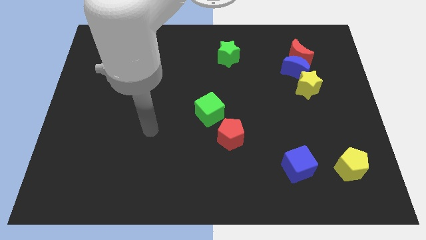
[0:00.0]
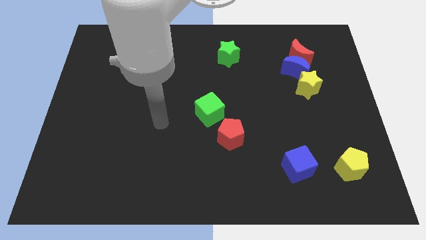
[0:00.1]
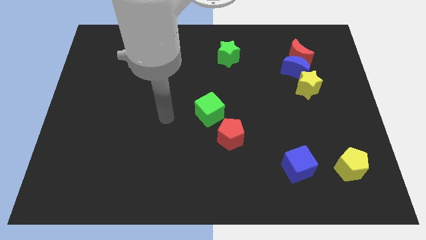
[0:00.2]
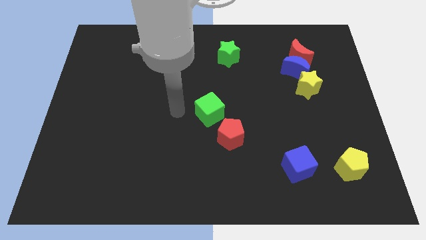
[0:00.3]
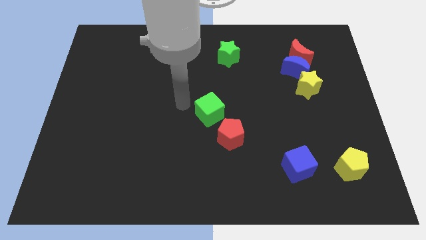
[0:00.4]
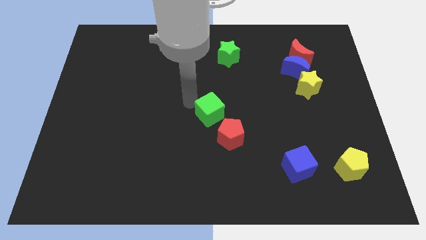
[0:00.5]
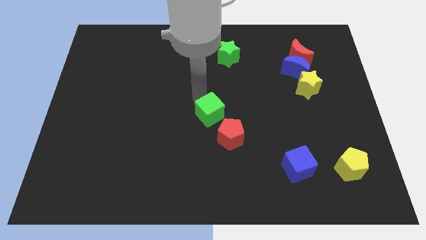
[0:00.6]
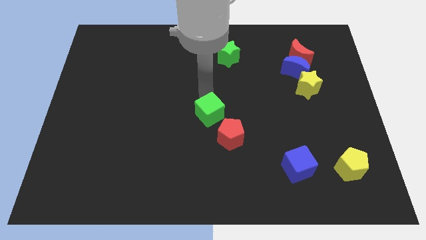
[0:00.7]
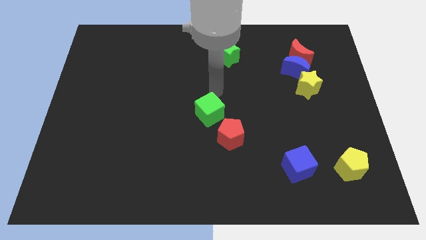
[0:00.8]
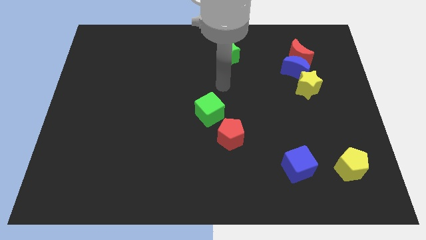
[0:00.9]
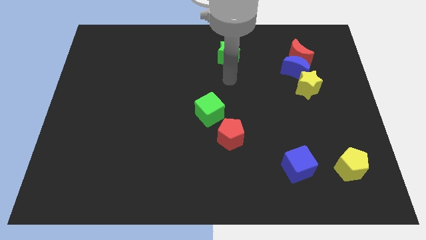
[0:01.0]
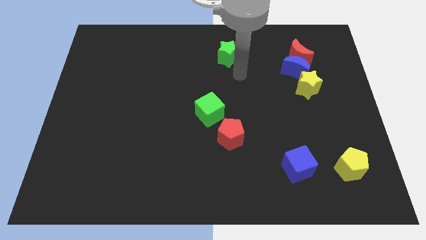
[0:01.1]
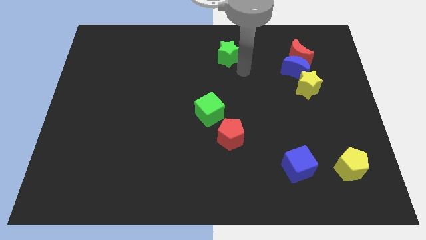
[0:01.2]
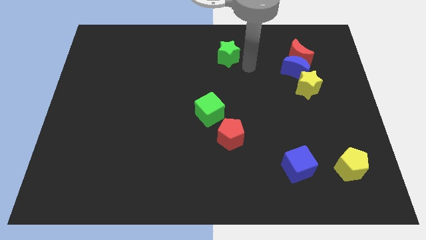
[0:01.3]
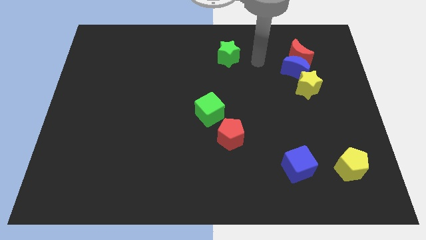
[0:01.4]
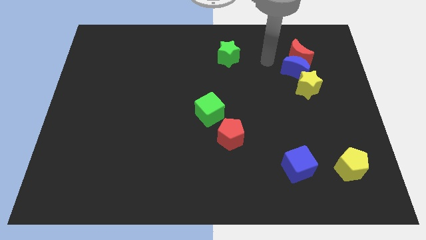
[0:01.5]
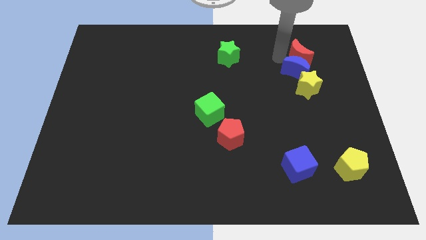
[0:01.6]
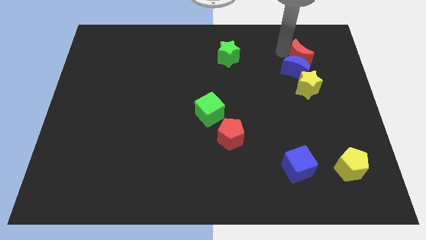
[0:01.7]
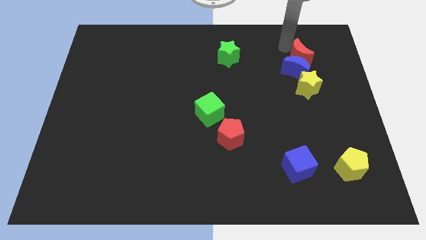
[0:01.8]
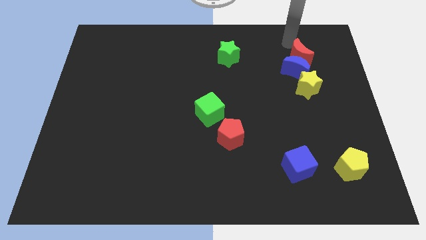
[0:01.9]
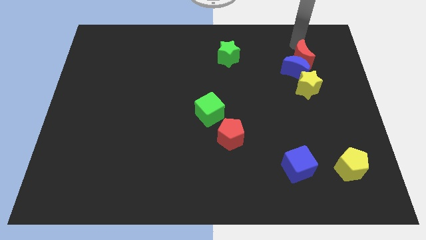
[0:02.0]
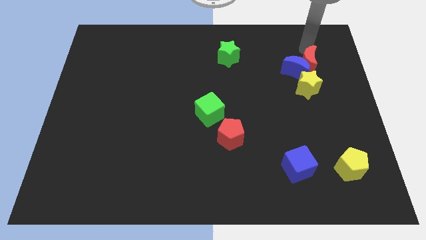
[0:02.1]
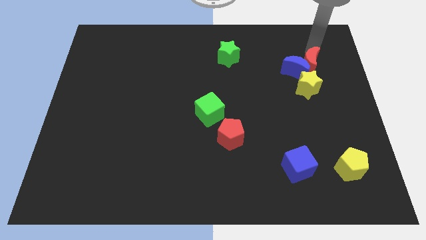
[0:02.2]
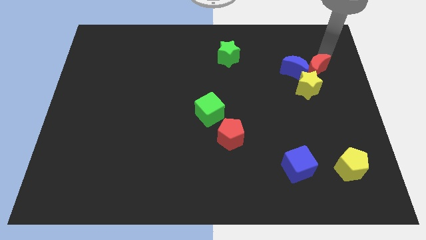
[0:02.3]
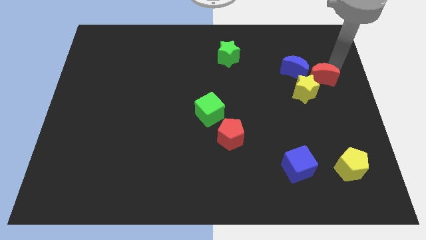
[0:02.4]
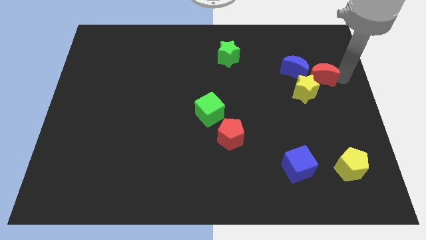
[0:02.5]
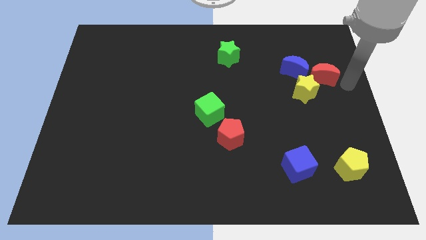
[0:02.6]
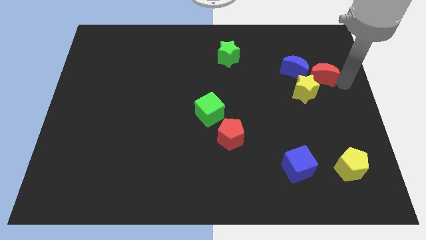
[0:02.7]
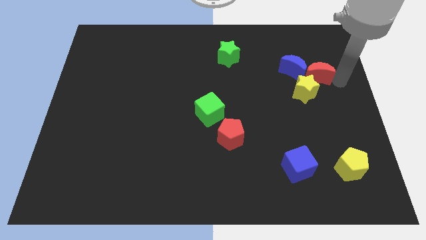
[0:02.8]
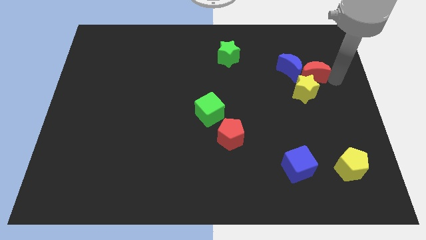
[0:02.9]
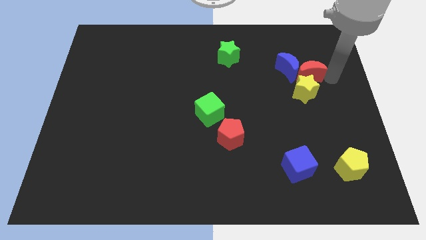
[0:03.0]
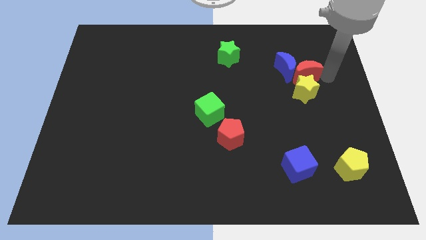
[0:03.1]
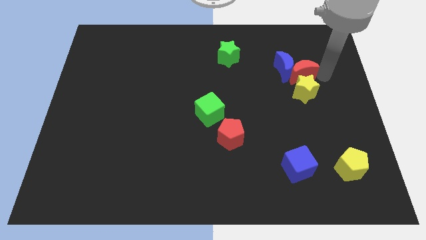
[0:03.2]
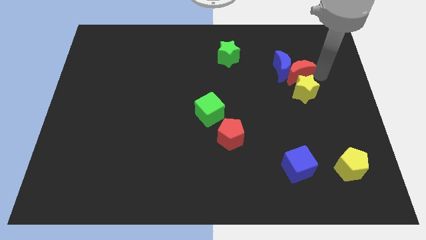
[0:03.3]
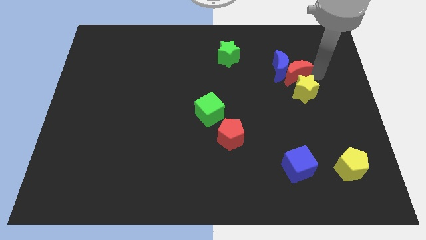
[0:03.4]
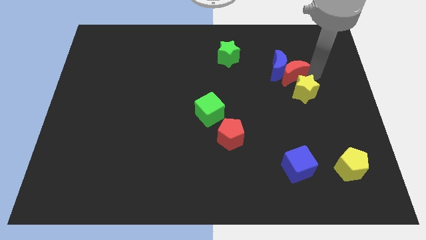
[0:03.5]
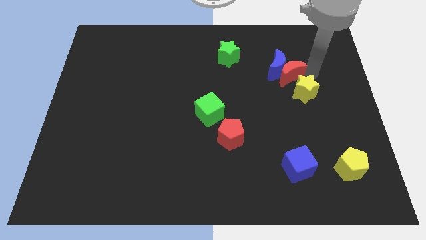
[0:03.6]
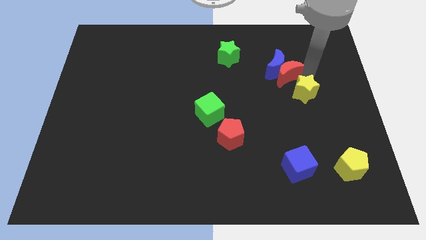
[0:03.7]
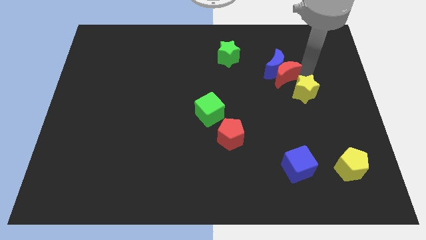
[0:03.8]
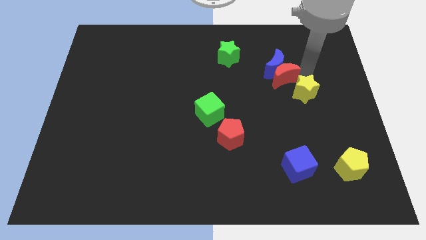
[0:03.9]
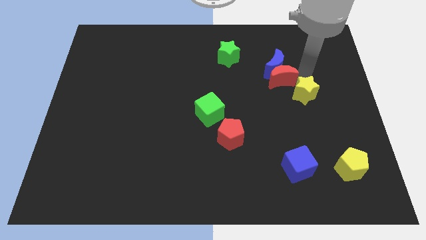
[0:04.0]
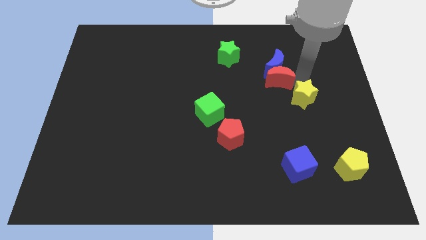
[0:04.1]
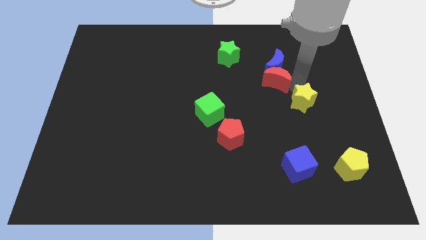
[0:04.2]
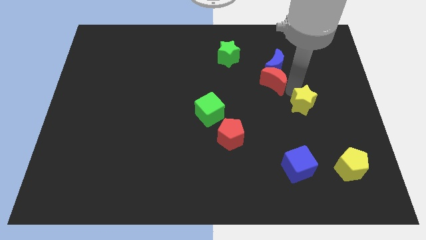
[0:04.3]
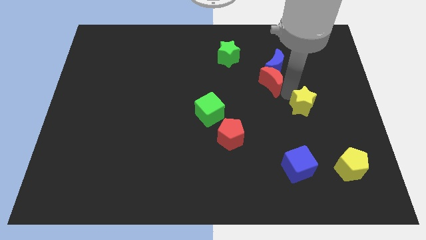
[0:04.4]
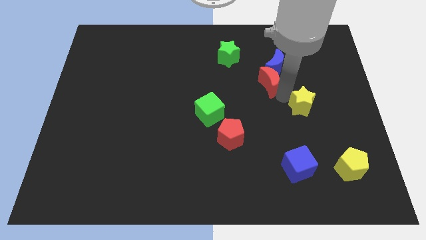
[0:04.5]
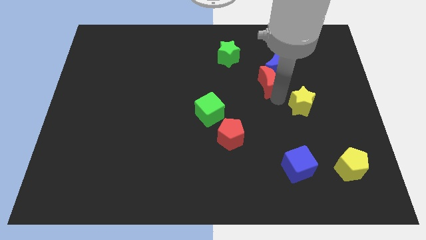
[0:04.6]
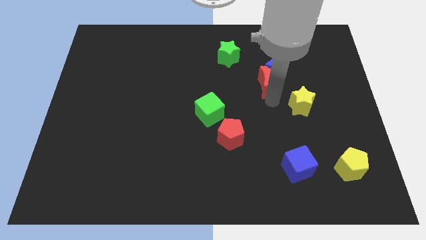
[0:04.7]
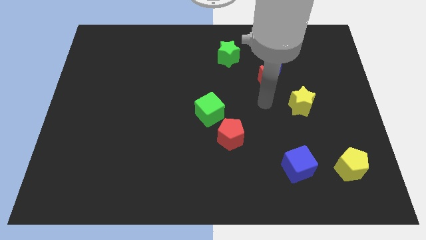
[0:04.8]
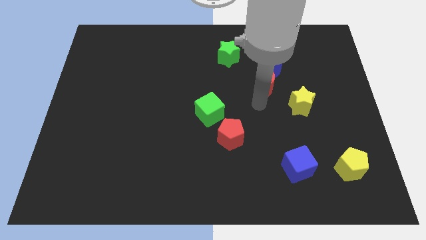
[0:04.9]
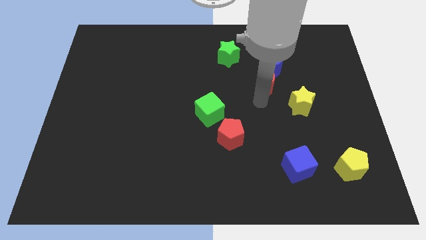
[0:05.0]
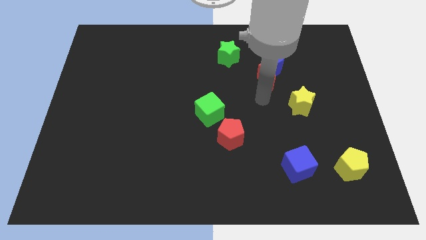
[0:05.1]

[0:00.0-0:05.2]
slide the red moon to the bottom right side of the green star

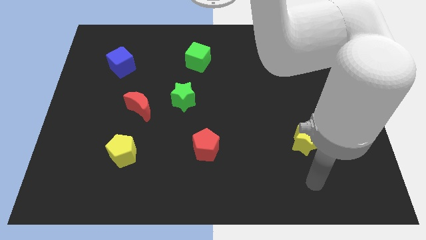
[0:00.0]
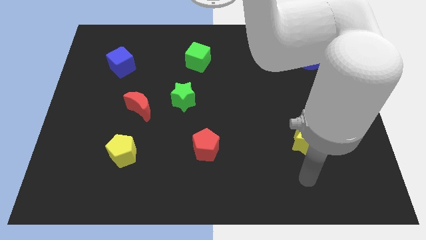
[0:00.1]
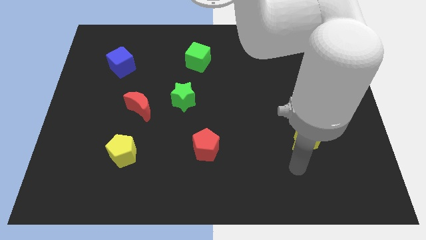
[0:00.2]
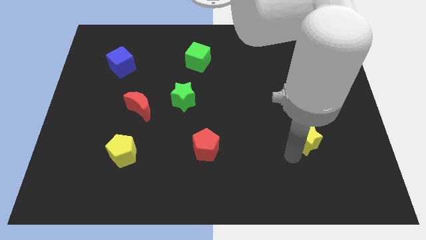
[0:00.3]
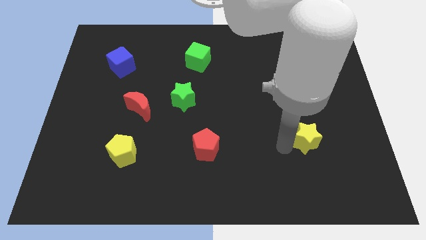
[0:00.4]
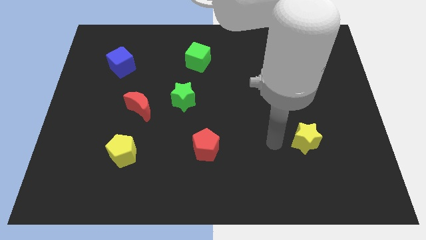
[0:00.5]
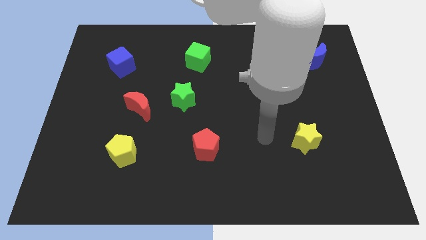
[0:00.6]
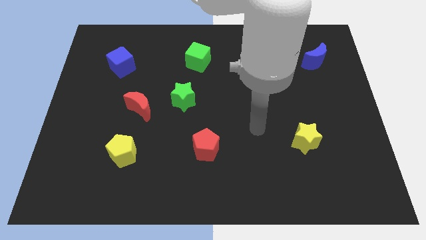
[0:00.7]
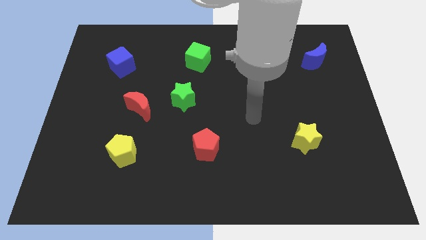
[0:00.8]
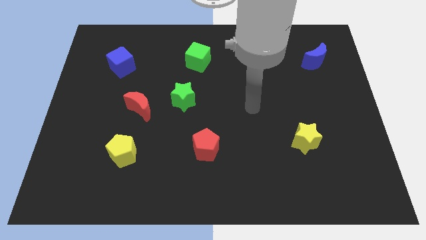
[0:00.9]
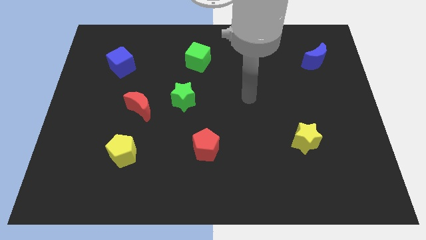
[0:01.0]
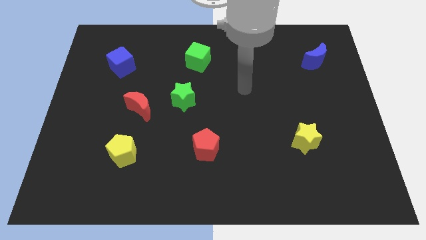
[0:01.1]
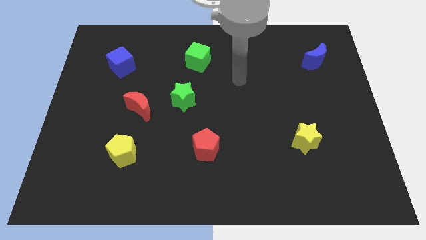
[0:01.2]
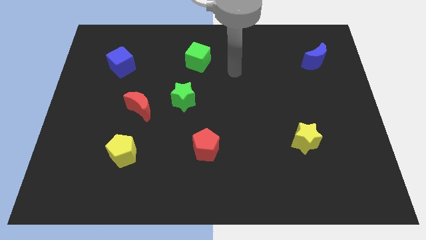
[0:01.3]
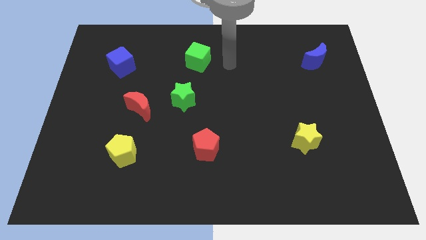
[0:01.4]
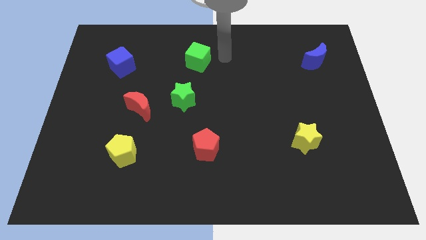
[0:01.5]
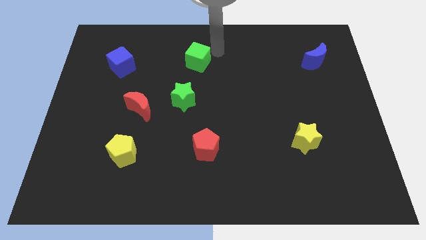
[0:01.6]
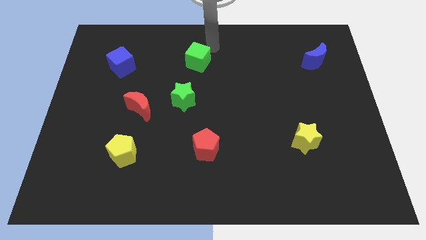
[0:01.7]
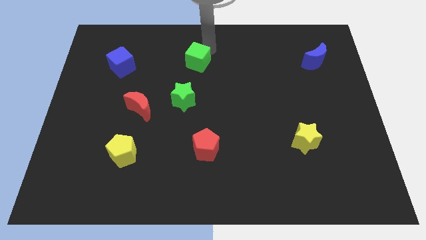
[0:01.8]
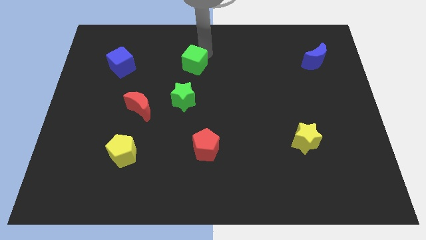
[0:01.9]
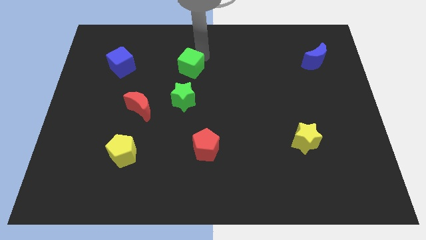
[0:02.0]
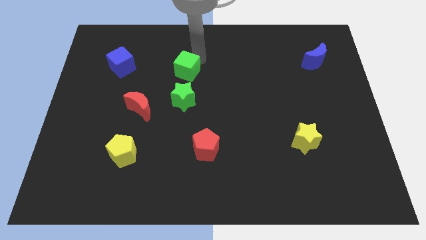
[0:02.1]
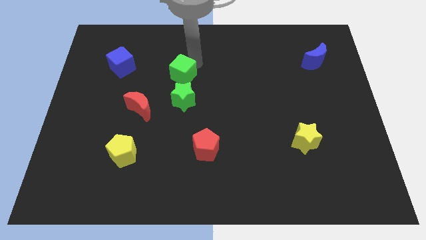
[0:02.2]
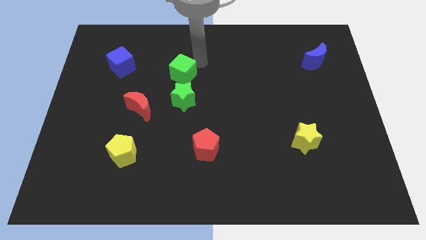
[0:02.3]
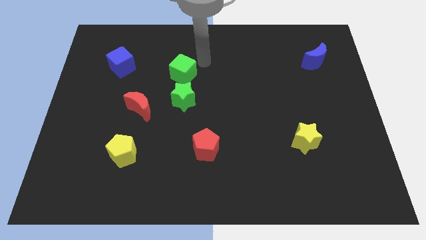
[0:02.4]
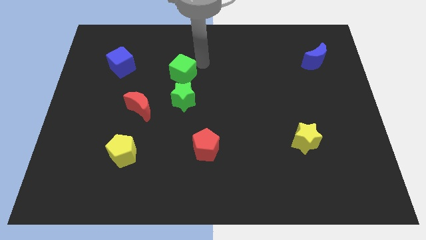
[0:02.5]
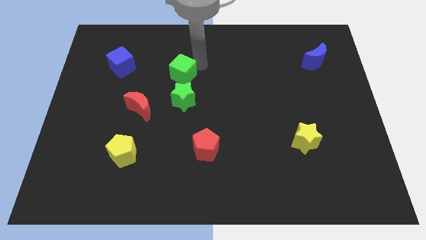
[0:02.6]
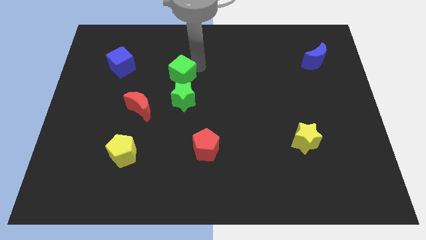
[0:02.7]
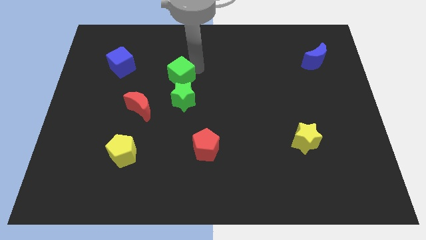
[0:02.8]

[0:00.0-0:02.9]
slide the green cube diagonally up and to the left of the green star
